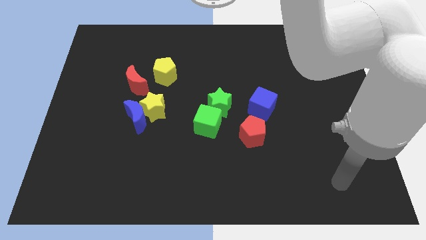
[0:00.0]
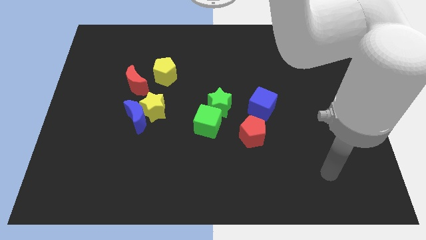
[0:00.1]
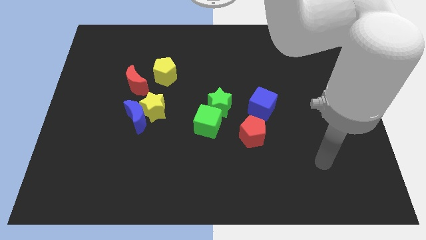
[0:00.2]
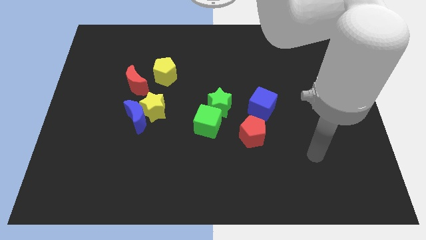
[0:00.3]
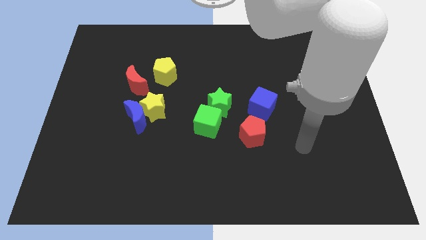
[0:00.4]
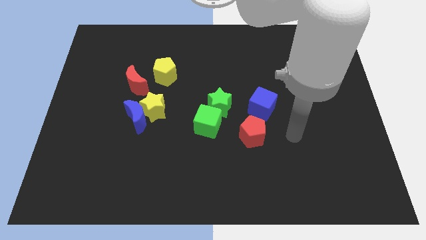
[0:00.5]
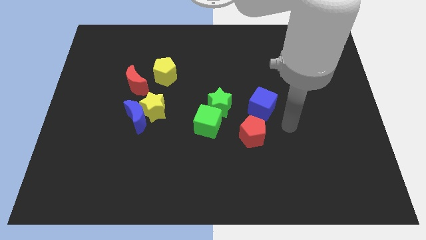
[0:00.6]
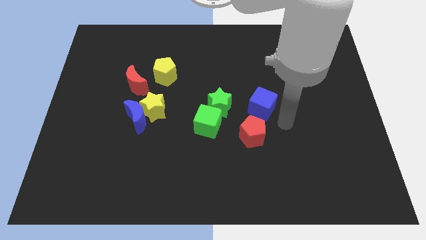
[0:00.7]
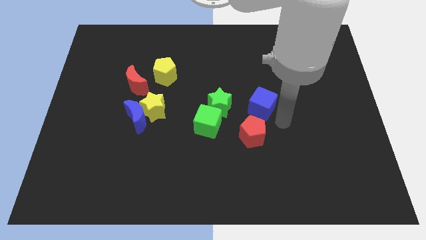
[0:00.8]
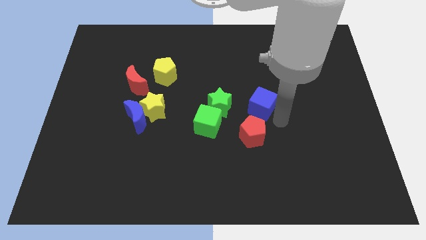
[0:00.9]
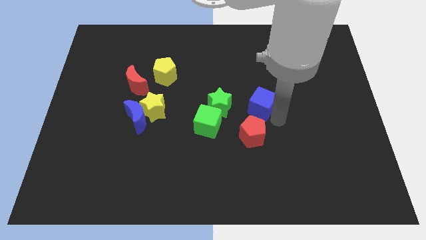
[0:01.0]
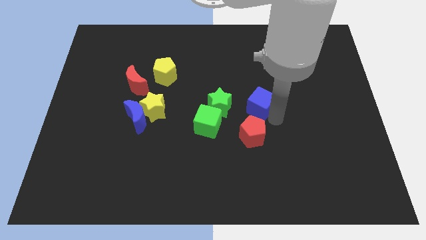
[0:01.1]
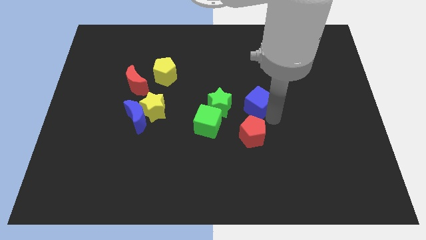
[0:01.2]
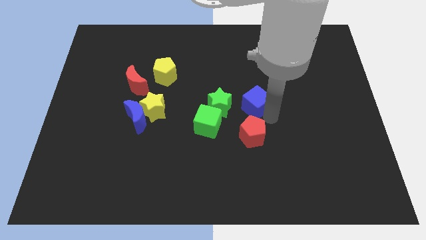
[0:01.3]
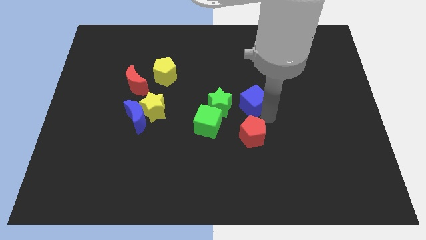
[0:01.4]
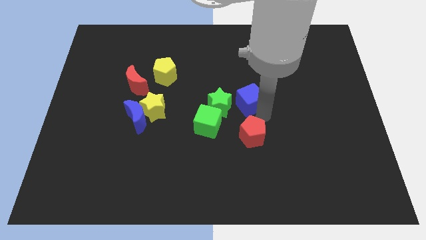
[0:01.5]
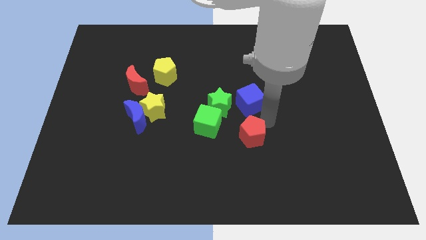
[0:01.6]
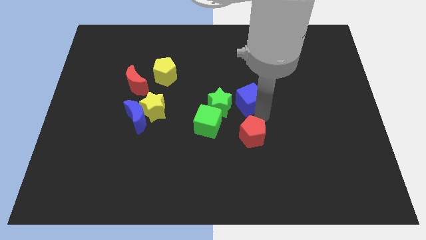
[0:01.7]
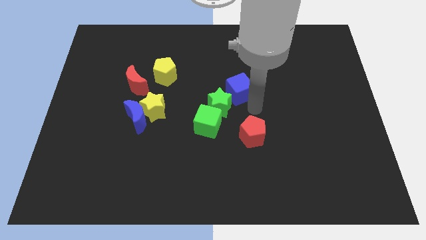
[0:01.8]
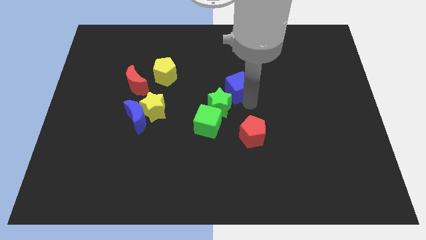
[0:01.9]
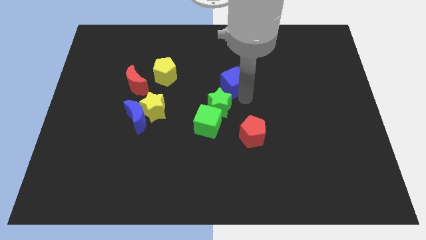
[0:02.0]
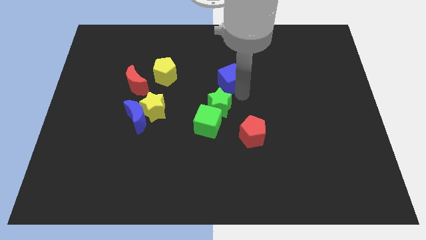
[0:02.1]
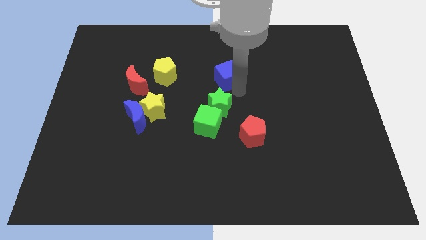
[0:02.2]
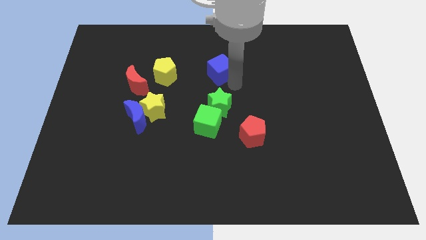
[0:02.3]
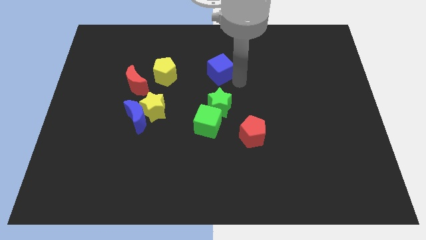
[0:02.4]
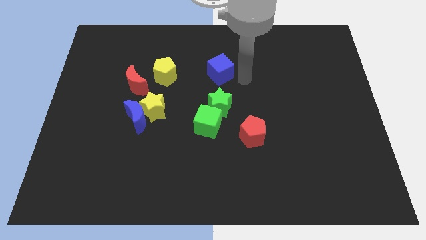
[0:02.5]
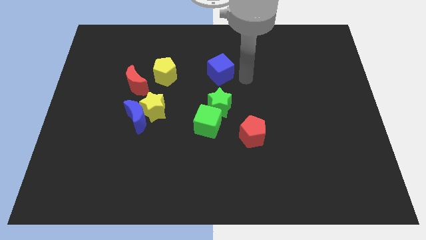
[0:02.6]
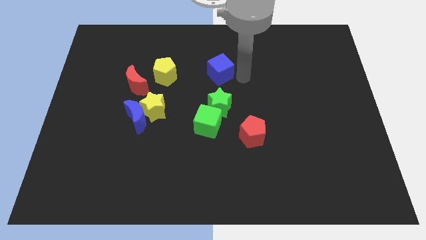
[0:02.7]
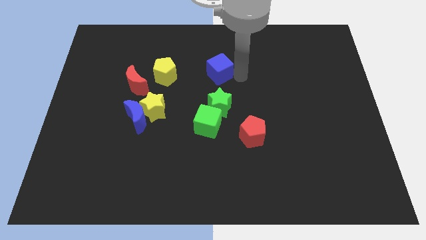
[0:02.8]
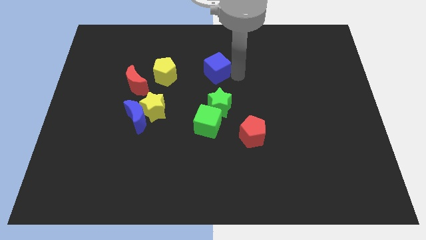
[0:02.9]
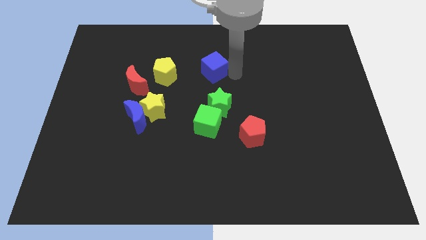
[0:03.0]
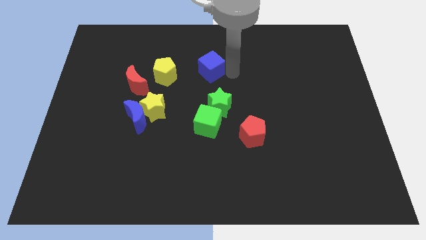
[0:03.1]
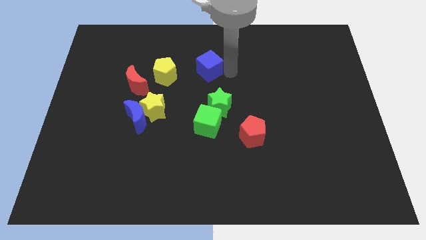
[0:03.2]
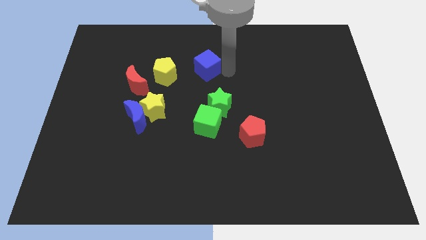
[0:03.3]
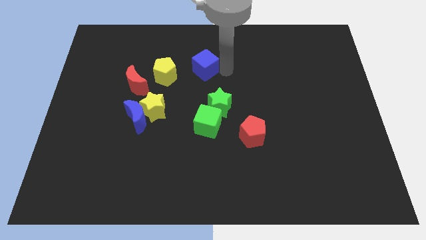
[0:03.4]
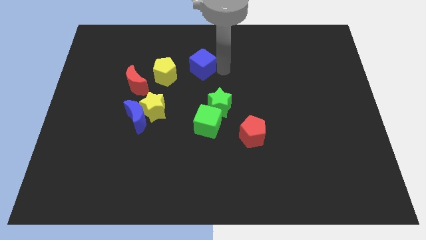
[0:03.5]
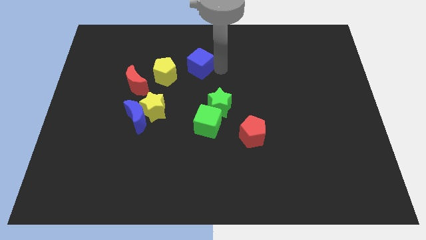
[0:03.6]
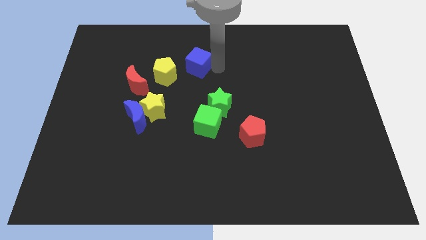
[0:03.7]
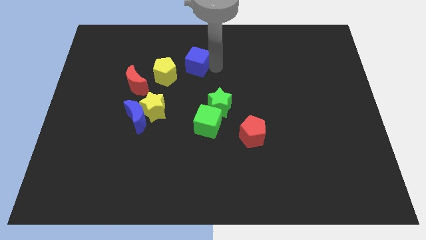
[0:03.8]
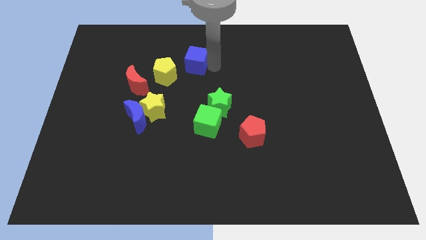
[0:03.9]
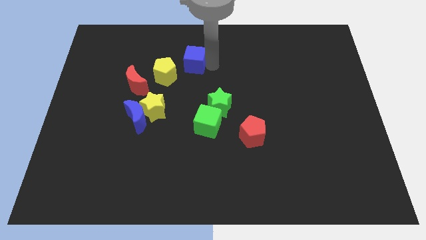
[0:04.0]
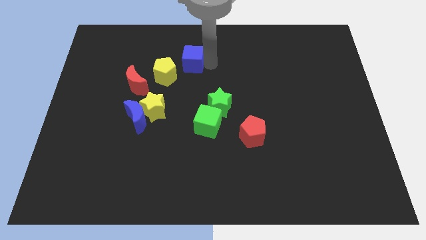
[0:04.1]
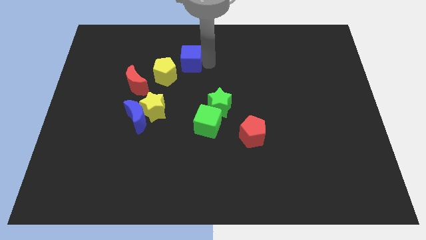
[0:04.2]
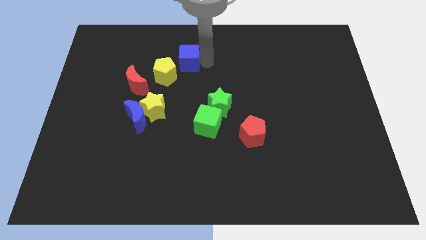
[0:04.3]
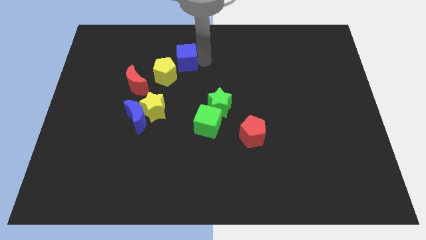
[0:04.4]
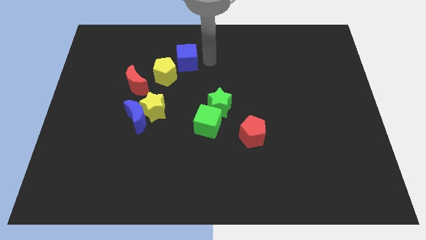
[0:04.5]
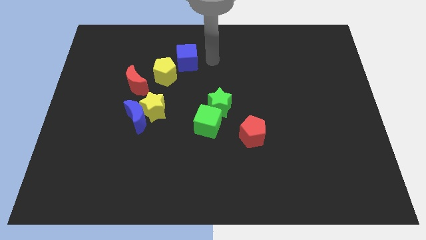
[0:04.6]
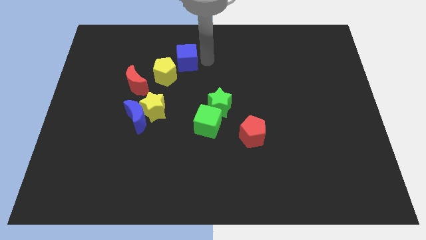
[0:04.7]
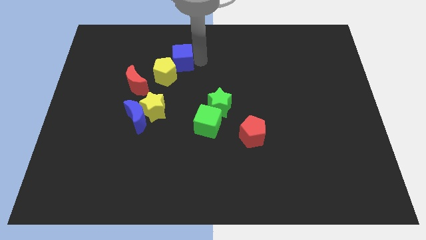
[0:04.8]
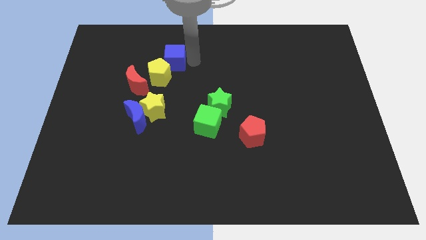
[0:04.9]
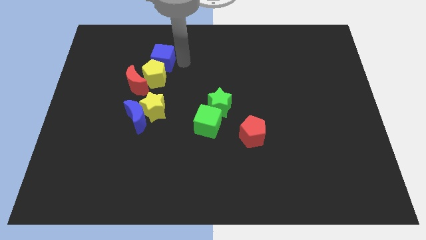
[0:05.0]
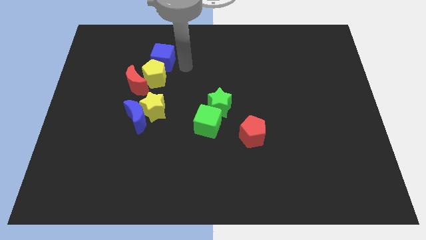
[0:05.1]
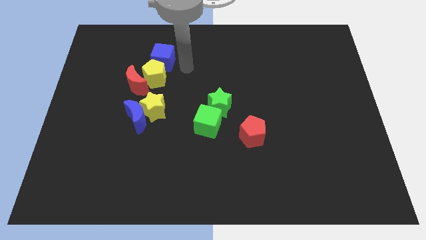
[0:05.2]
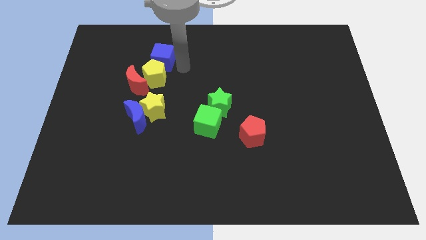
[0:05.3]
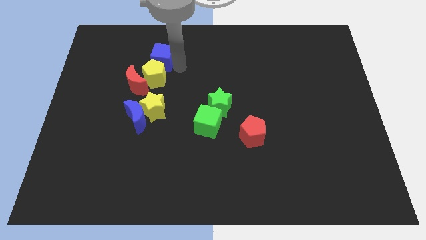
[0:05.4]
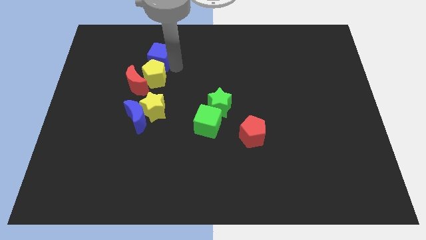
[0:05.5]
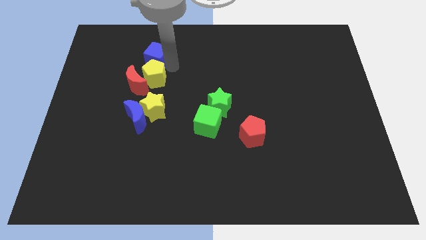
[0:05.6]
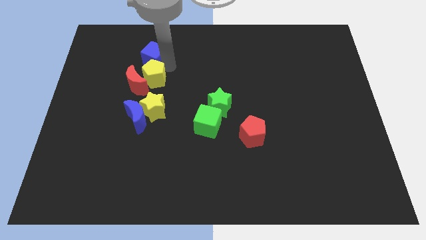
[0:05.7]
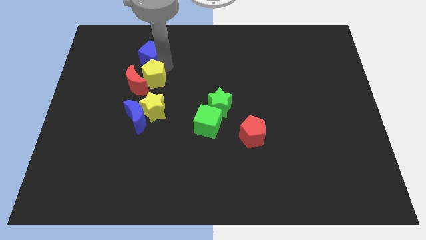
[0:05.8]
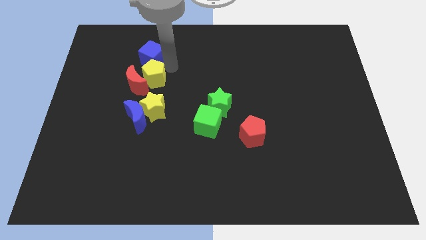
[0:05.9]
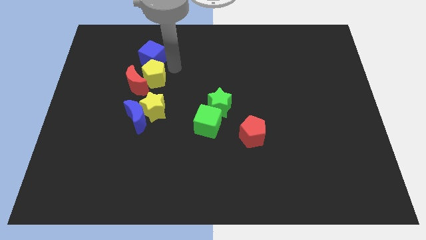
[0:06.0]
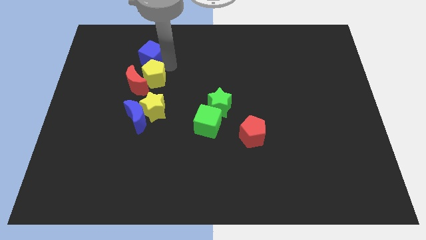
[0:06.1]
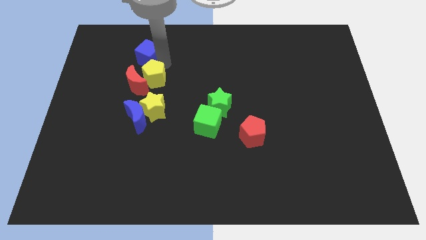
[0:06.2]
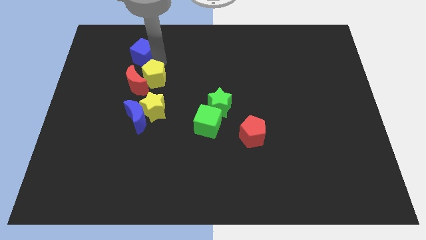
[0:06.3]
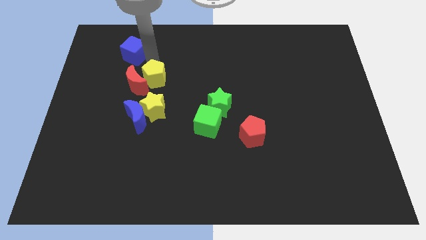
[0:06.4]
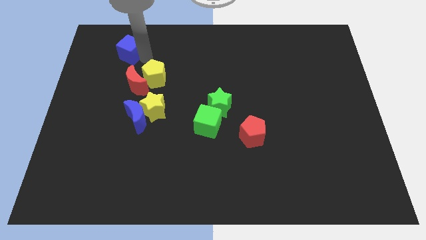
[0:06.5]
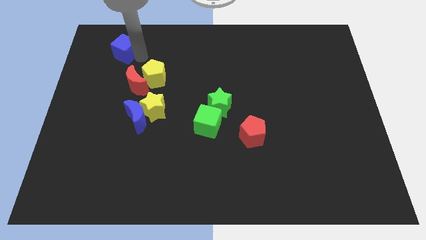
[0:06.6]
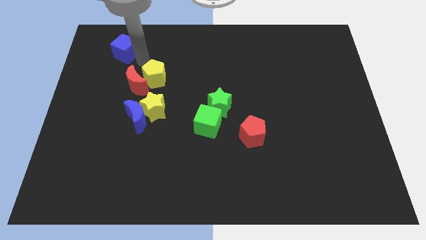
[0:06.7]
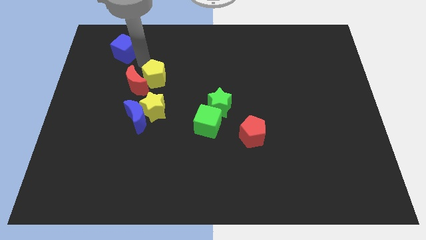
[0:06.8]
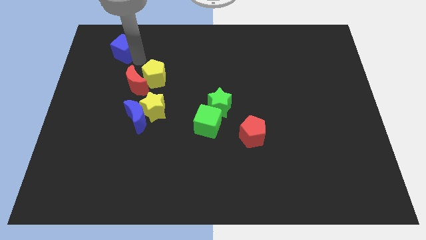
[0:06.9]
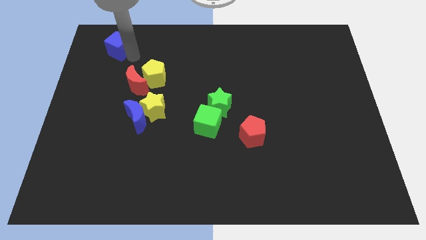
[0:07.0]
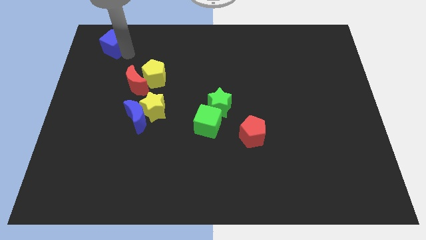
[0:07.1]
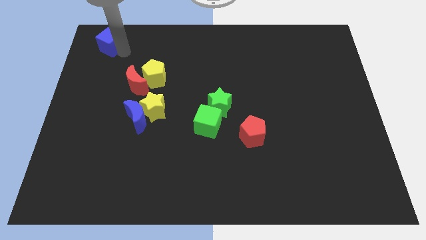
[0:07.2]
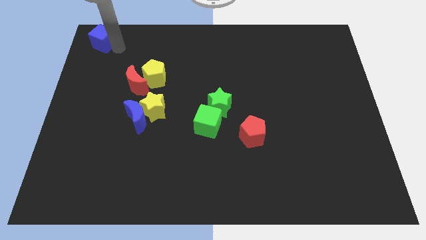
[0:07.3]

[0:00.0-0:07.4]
move the blue cube to the top left
